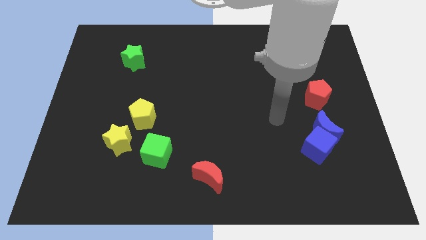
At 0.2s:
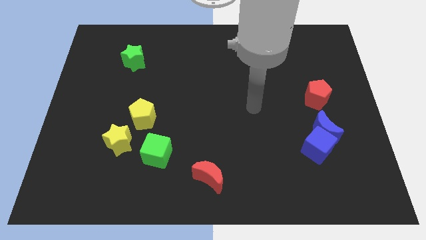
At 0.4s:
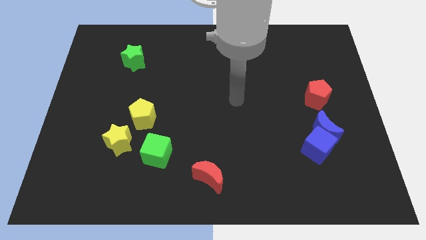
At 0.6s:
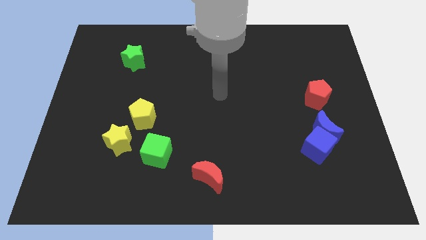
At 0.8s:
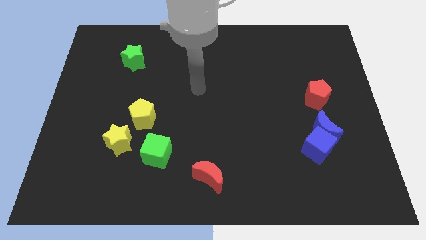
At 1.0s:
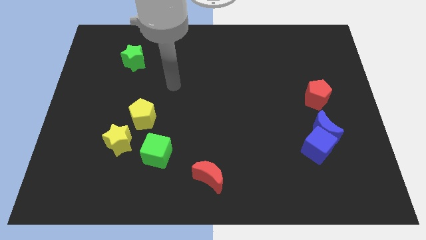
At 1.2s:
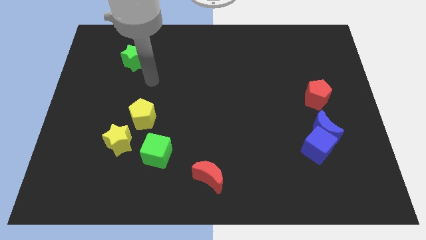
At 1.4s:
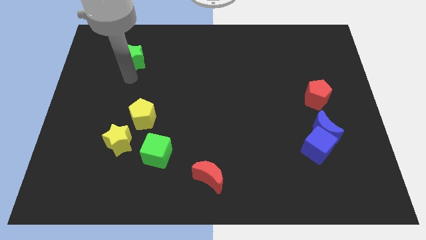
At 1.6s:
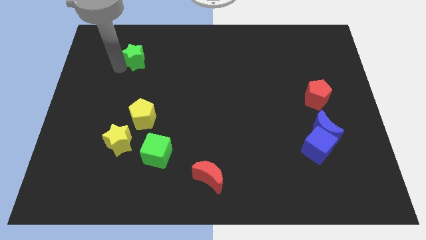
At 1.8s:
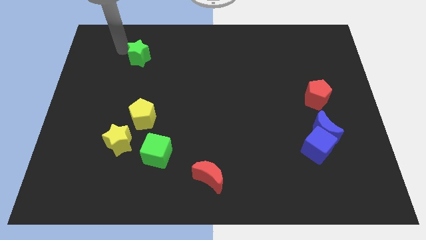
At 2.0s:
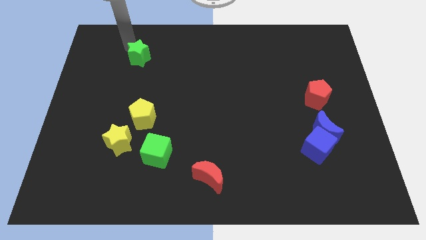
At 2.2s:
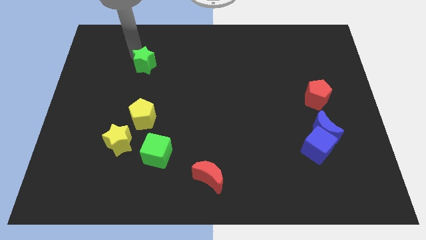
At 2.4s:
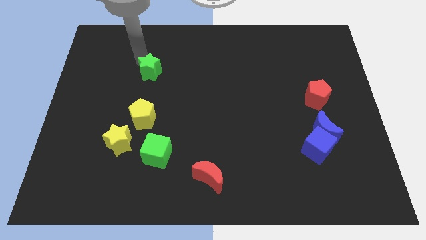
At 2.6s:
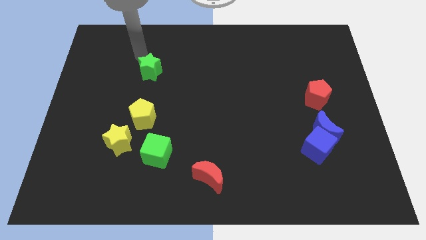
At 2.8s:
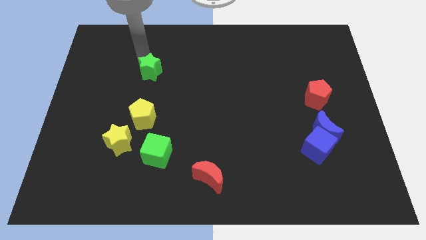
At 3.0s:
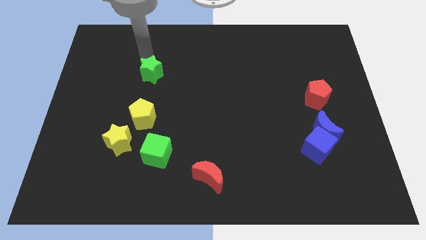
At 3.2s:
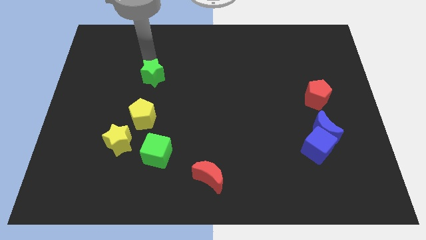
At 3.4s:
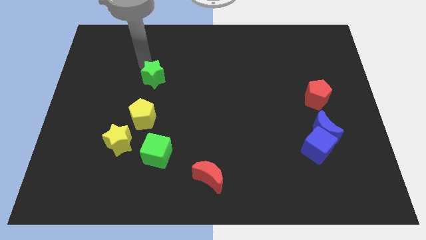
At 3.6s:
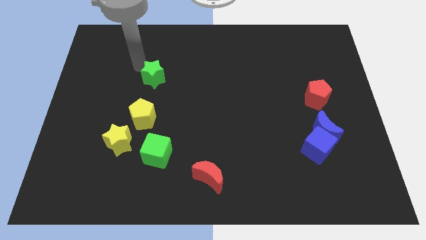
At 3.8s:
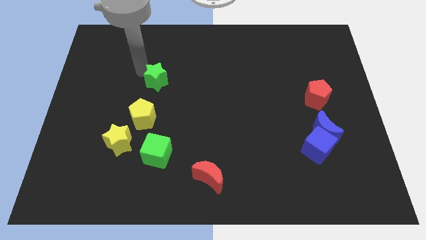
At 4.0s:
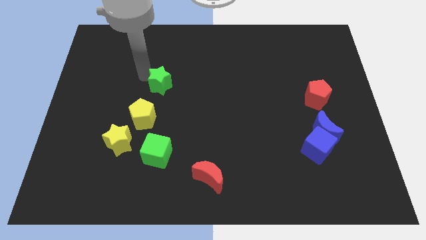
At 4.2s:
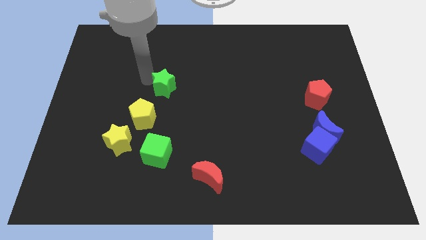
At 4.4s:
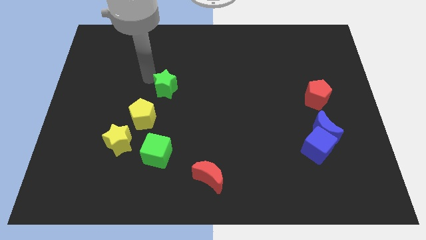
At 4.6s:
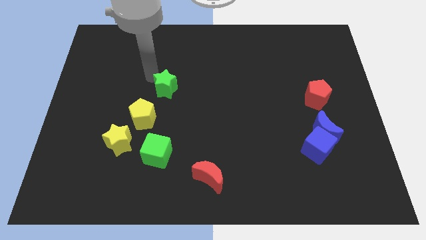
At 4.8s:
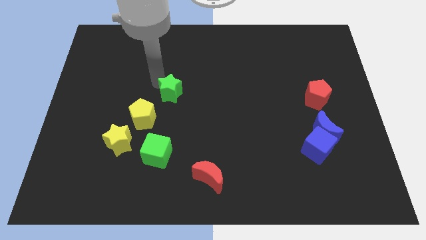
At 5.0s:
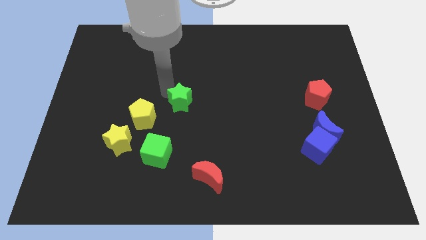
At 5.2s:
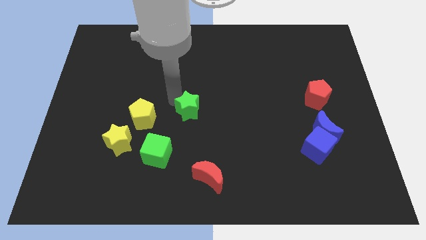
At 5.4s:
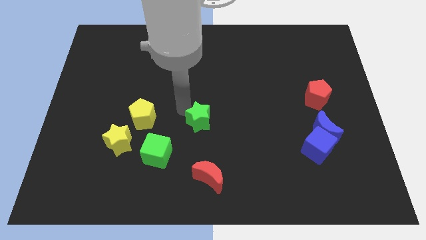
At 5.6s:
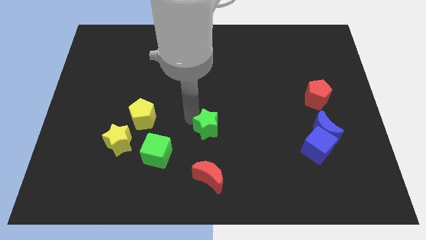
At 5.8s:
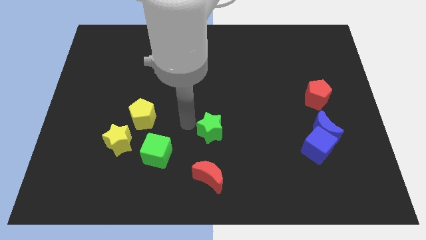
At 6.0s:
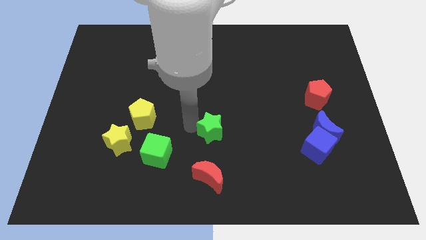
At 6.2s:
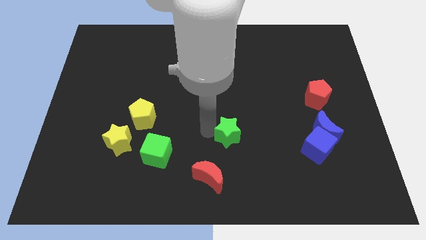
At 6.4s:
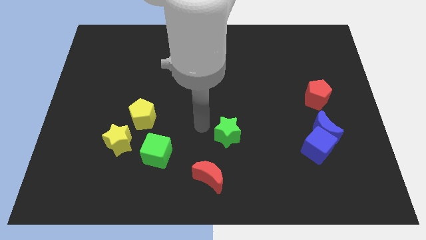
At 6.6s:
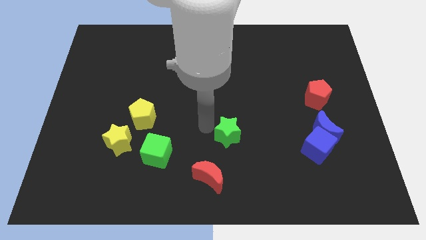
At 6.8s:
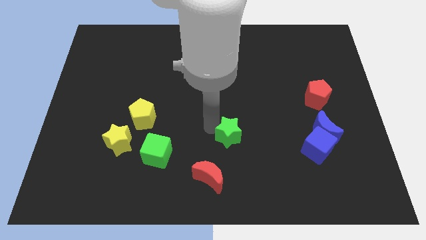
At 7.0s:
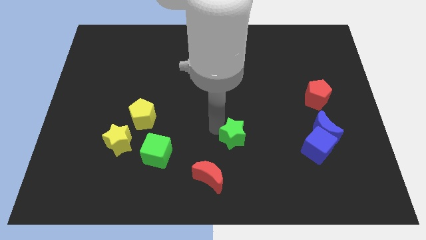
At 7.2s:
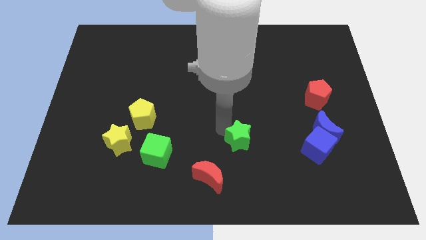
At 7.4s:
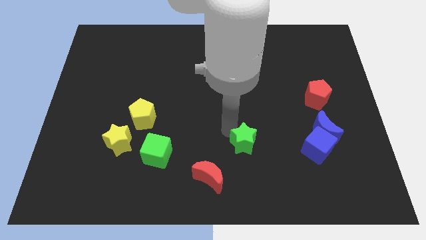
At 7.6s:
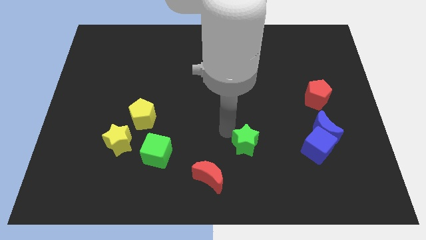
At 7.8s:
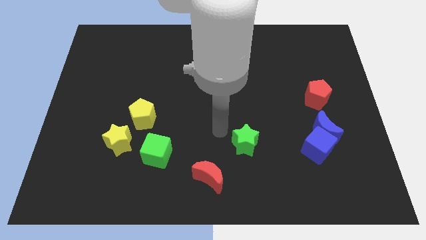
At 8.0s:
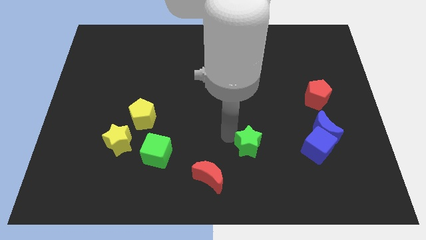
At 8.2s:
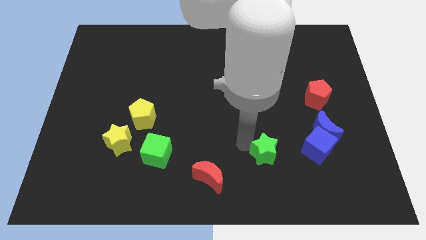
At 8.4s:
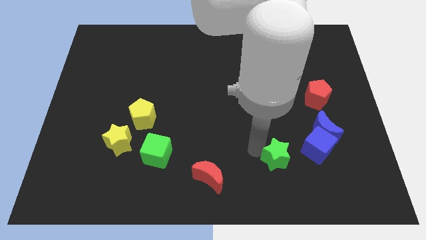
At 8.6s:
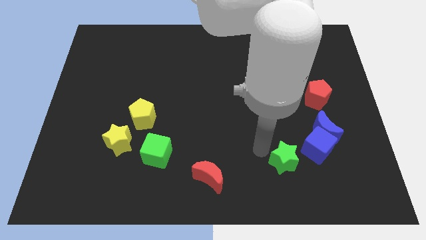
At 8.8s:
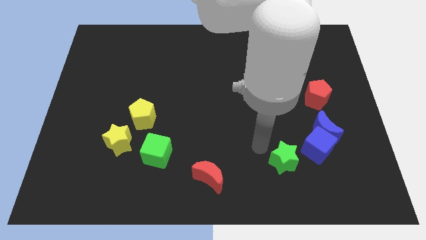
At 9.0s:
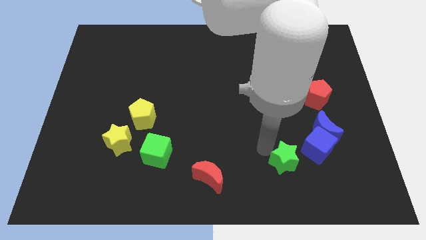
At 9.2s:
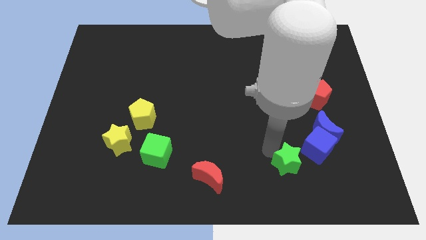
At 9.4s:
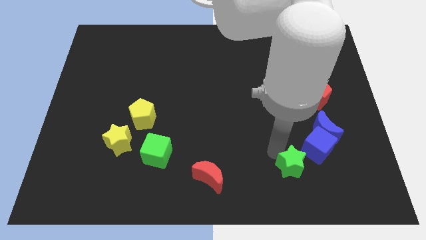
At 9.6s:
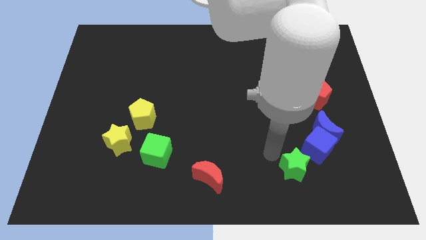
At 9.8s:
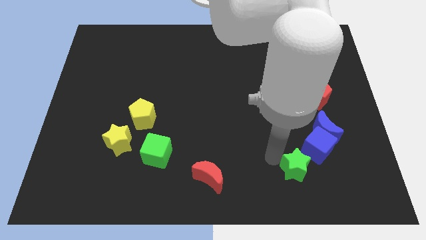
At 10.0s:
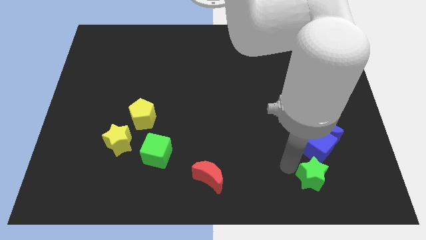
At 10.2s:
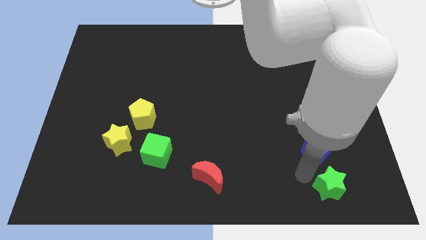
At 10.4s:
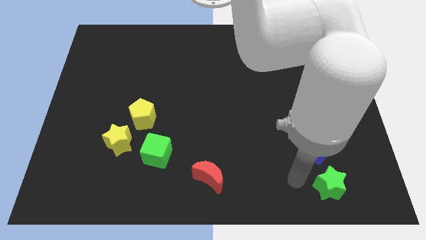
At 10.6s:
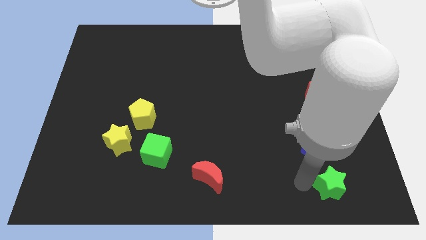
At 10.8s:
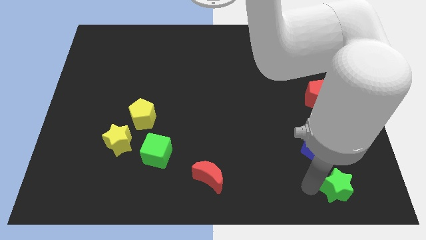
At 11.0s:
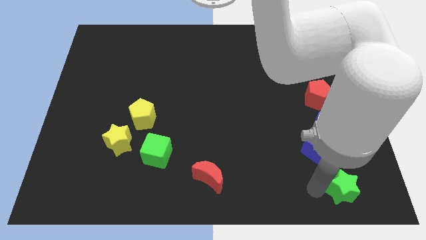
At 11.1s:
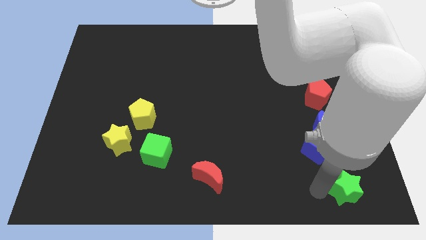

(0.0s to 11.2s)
push the green star to the bottom right

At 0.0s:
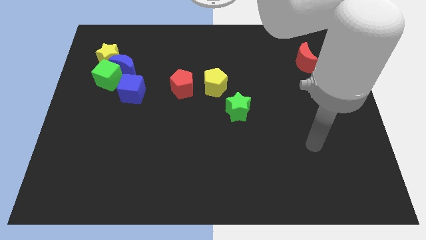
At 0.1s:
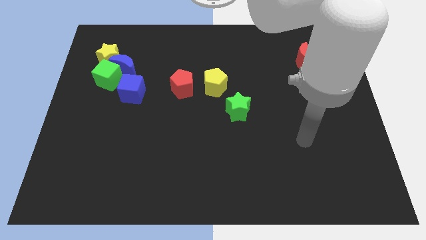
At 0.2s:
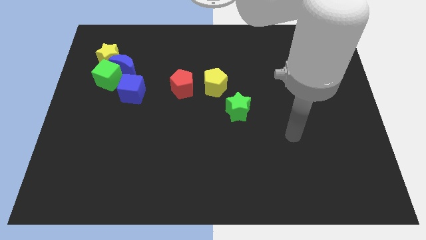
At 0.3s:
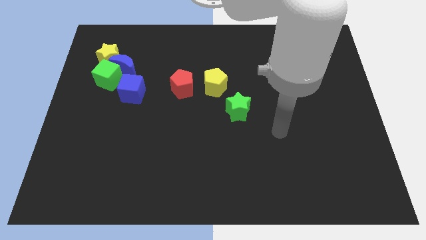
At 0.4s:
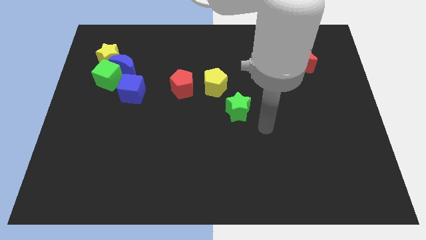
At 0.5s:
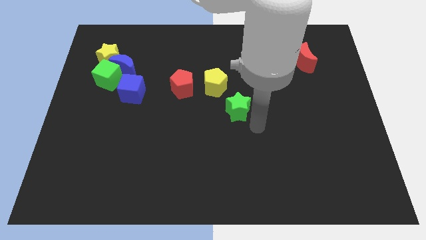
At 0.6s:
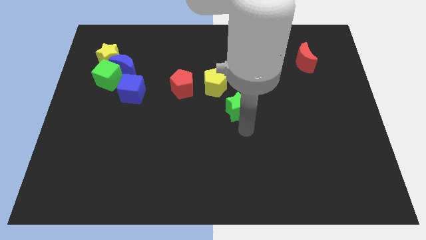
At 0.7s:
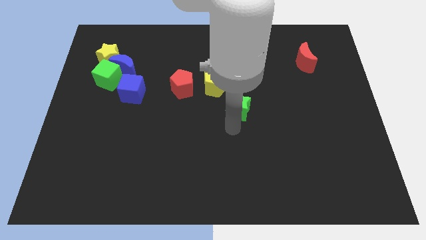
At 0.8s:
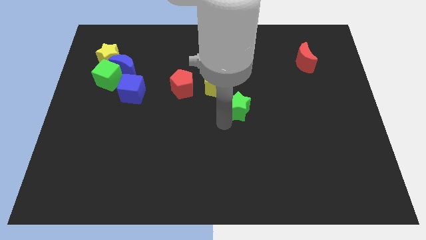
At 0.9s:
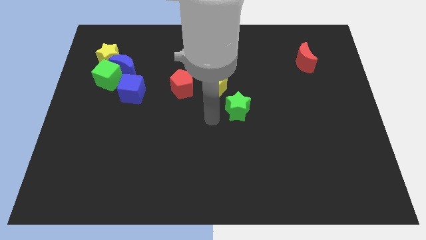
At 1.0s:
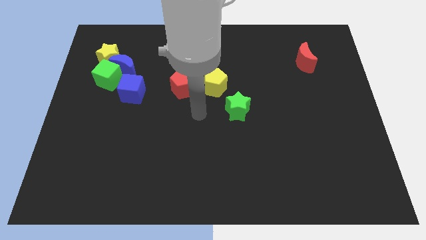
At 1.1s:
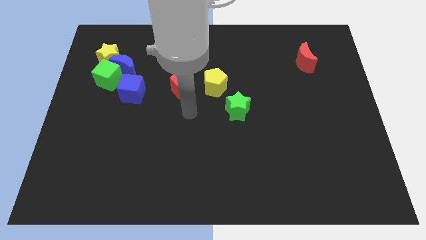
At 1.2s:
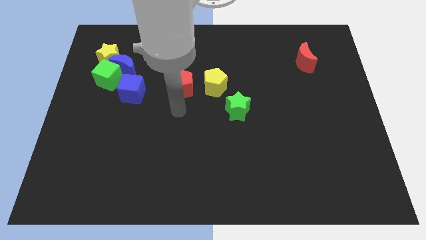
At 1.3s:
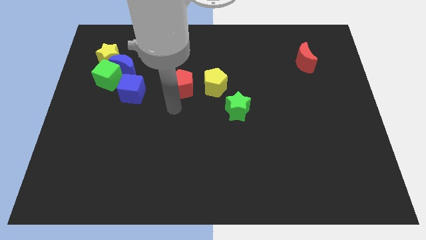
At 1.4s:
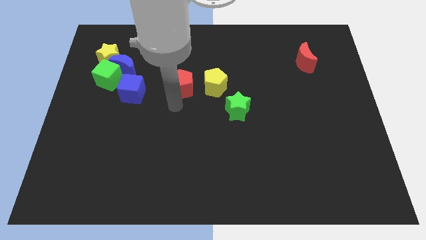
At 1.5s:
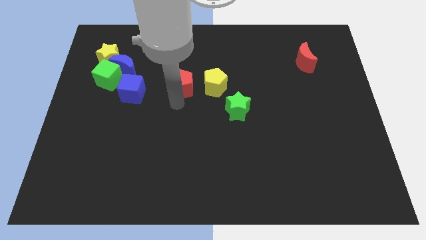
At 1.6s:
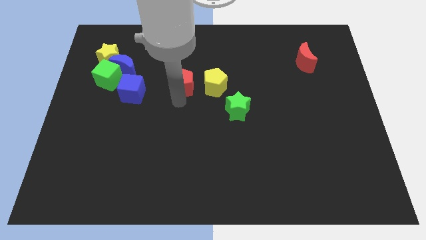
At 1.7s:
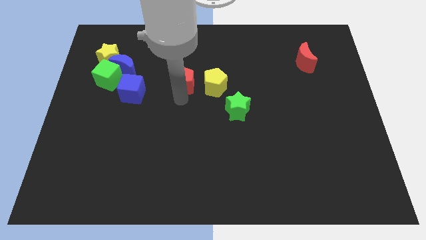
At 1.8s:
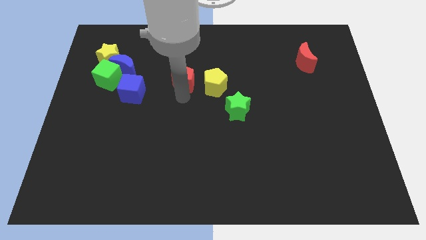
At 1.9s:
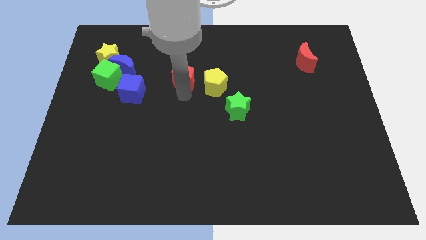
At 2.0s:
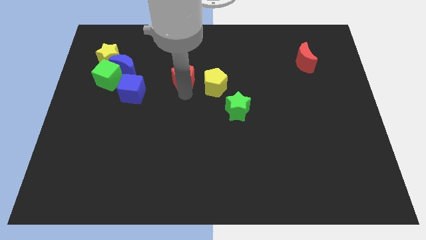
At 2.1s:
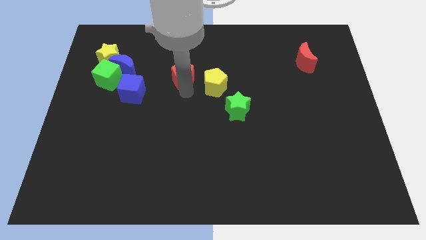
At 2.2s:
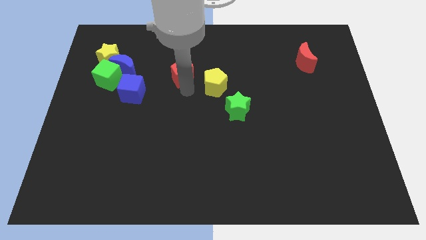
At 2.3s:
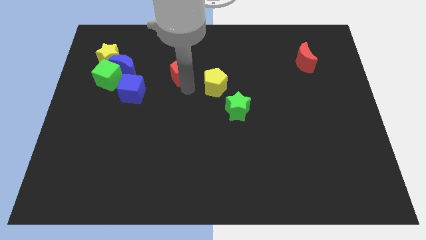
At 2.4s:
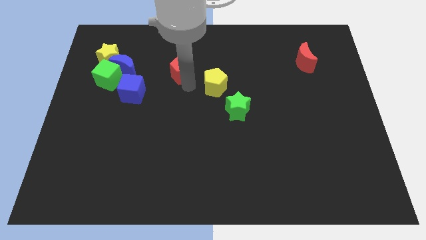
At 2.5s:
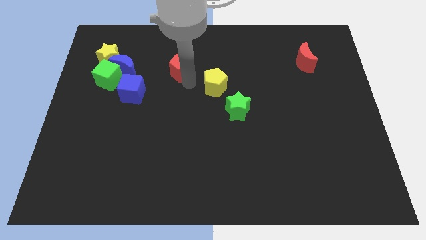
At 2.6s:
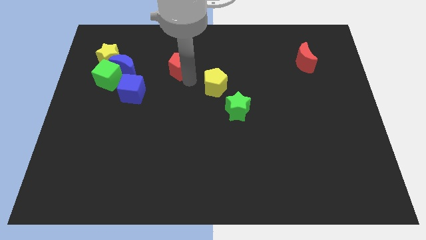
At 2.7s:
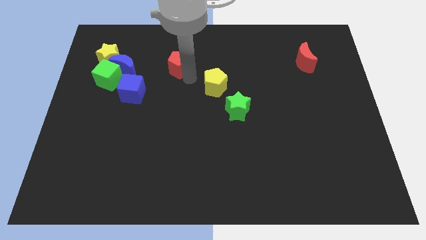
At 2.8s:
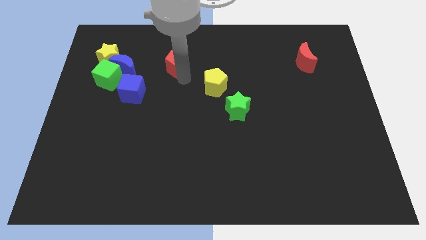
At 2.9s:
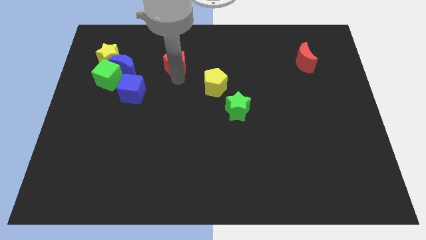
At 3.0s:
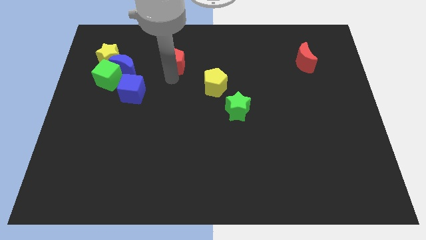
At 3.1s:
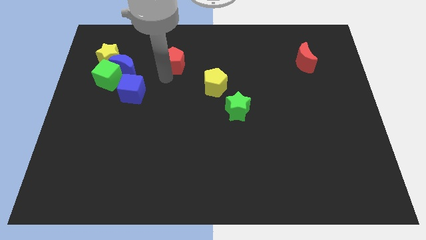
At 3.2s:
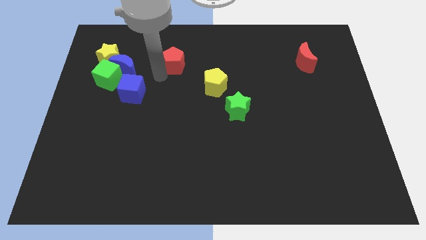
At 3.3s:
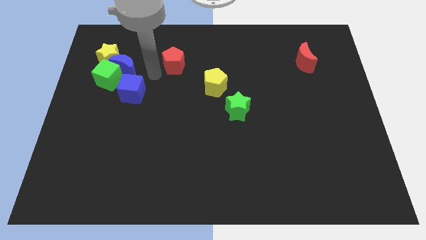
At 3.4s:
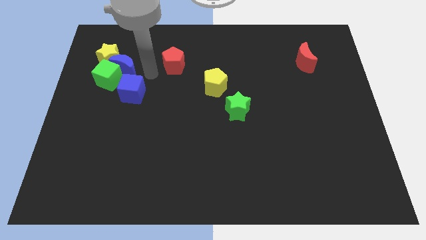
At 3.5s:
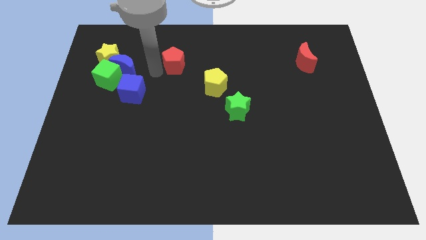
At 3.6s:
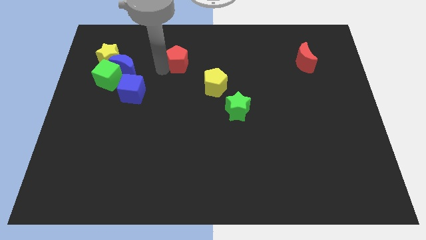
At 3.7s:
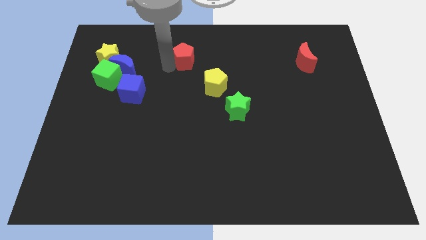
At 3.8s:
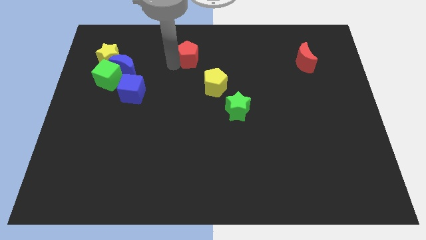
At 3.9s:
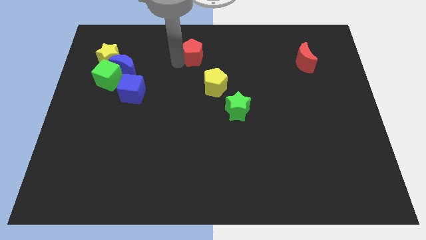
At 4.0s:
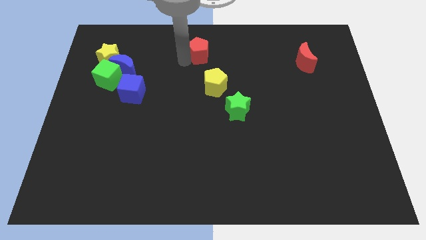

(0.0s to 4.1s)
move the red pentagon to the top
